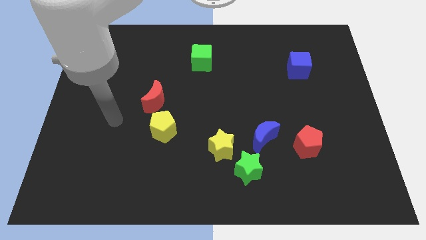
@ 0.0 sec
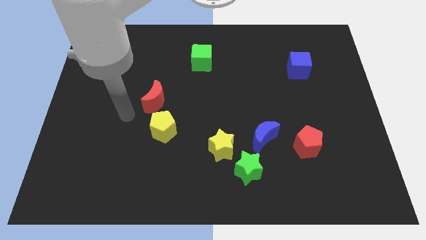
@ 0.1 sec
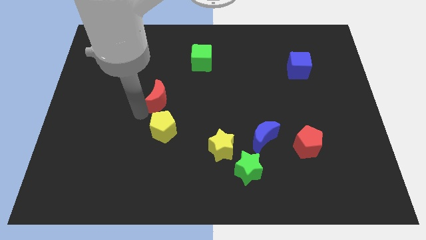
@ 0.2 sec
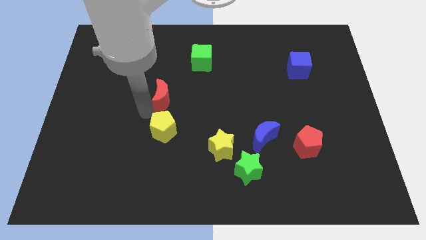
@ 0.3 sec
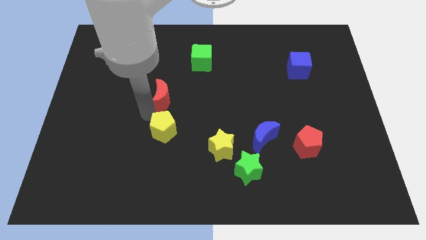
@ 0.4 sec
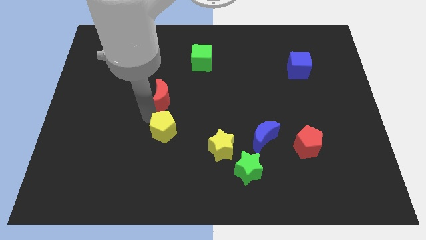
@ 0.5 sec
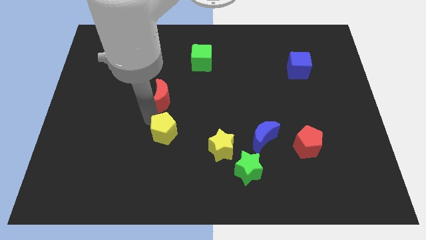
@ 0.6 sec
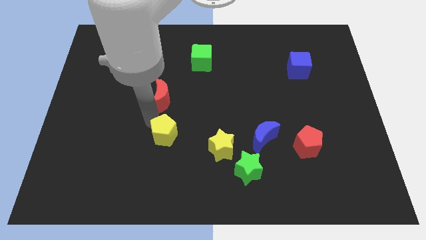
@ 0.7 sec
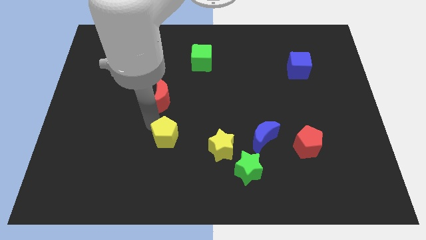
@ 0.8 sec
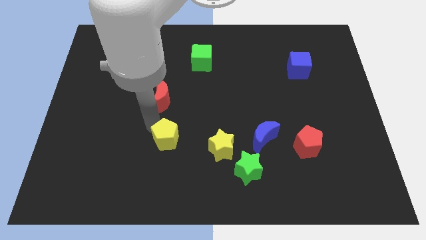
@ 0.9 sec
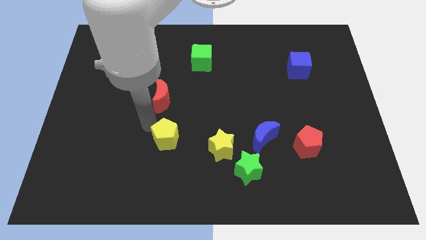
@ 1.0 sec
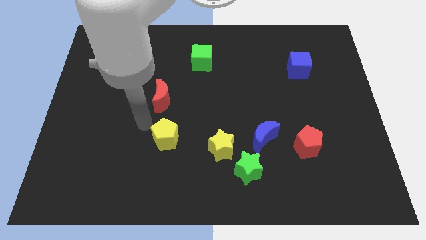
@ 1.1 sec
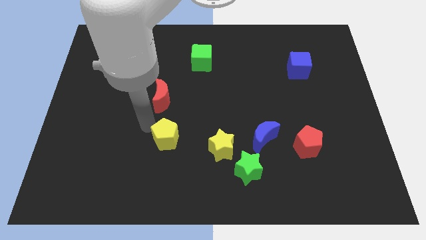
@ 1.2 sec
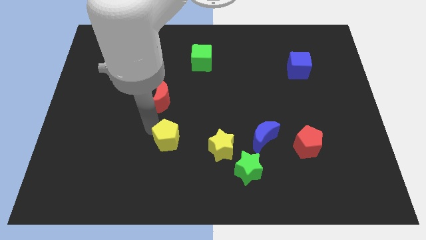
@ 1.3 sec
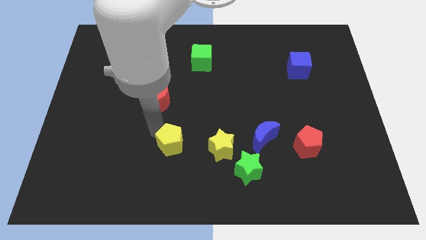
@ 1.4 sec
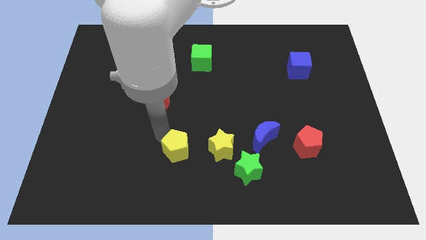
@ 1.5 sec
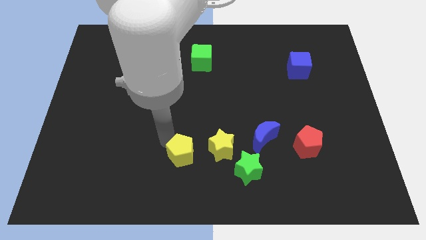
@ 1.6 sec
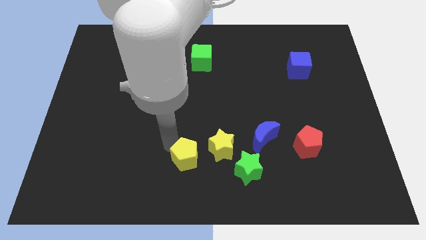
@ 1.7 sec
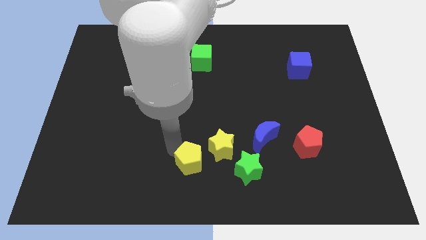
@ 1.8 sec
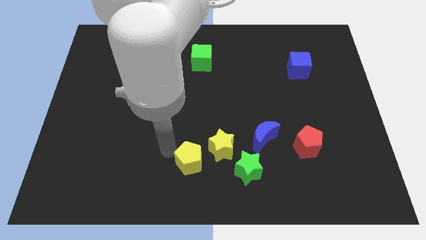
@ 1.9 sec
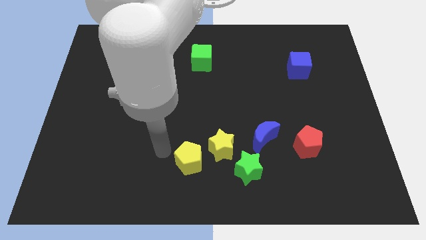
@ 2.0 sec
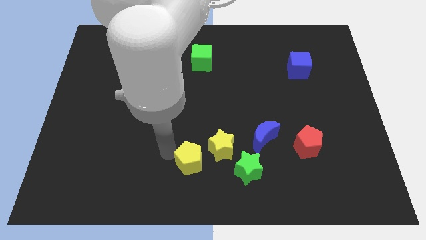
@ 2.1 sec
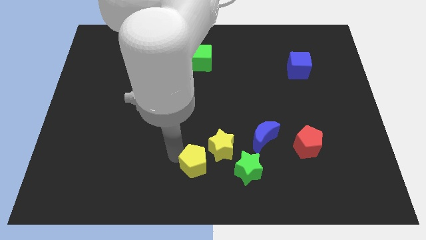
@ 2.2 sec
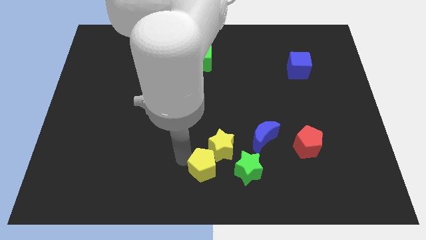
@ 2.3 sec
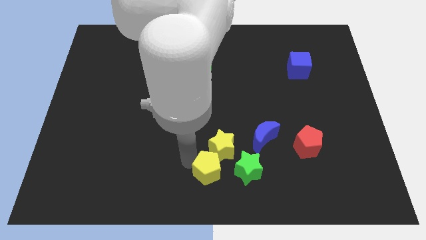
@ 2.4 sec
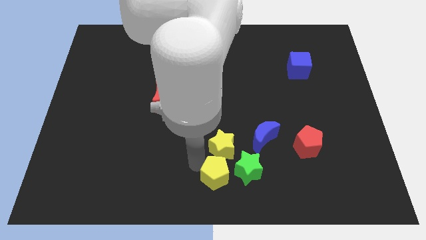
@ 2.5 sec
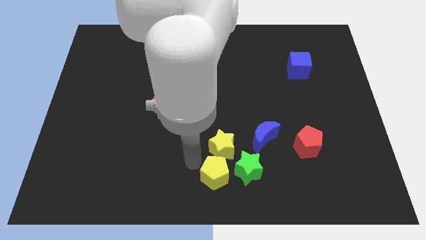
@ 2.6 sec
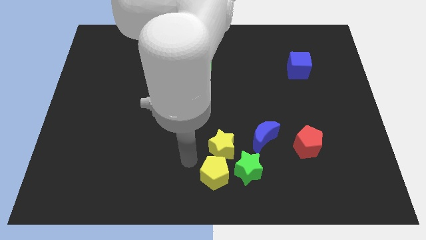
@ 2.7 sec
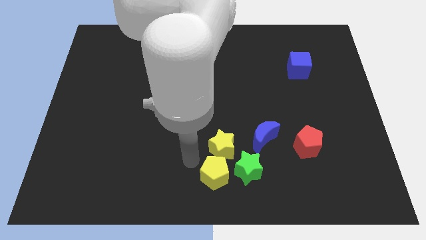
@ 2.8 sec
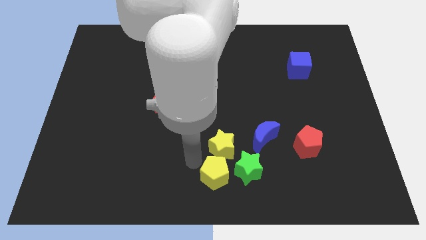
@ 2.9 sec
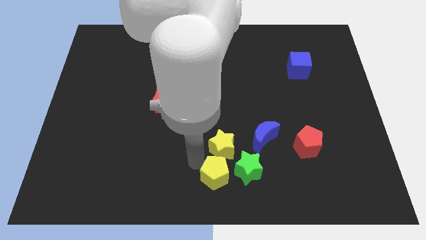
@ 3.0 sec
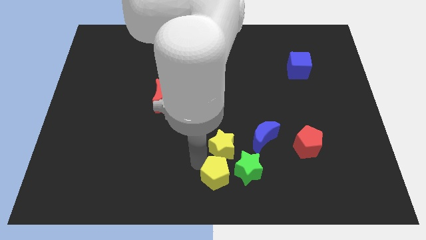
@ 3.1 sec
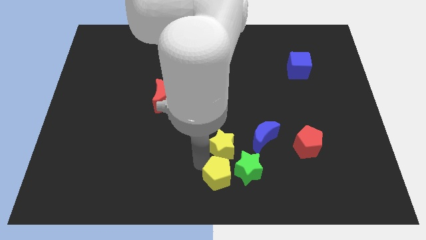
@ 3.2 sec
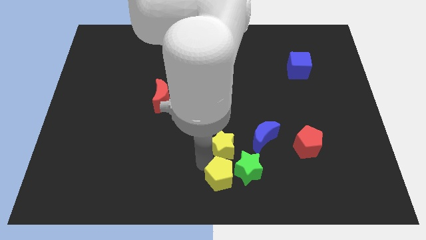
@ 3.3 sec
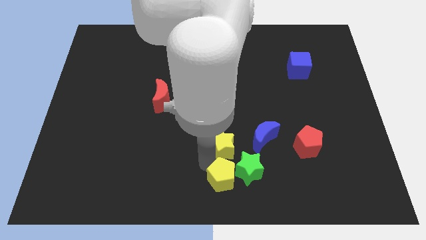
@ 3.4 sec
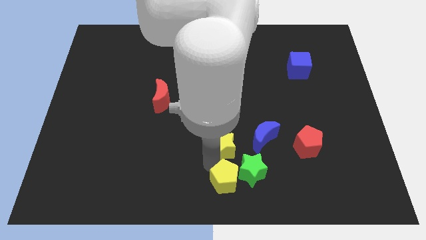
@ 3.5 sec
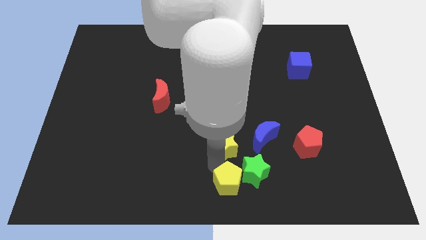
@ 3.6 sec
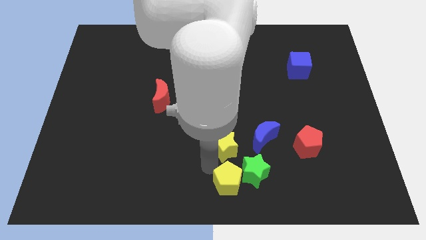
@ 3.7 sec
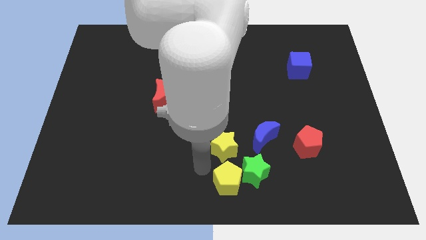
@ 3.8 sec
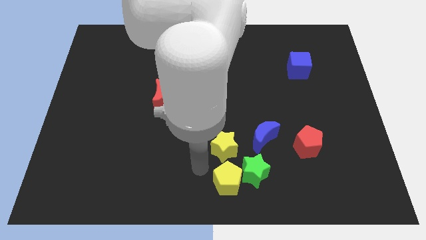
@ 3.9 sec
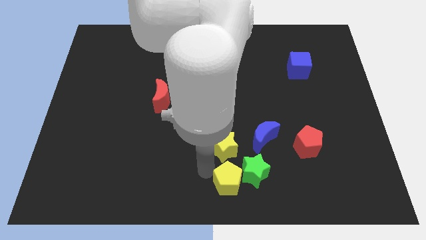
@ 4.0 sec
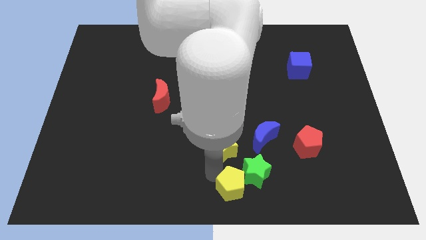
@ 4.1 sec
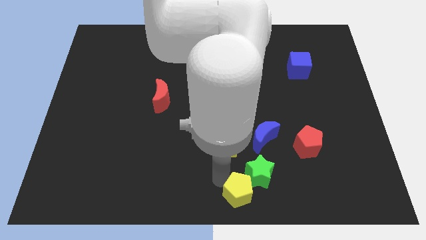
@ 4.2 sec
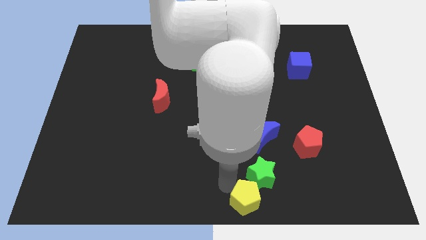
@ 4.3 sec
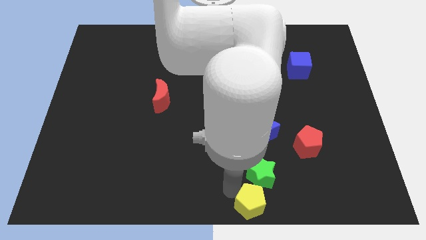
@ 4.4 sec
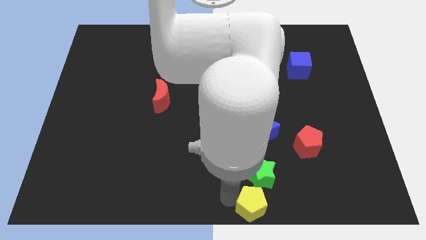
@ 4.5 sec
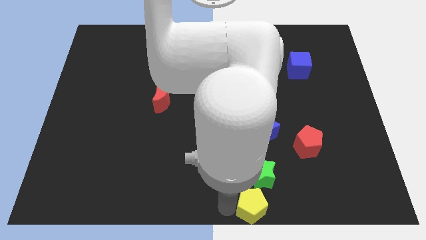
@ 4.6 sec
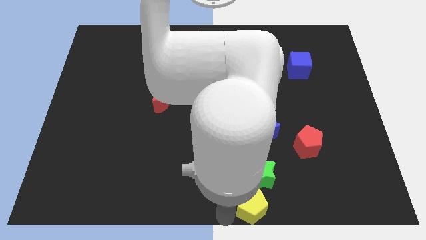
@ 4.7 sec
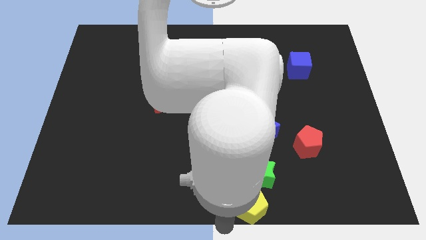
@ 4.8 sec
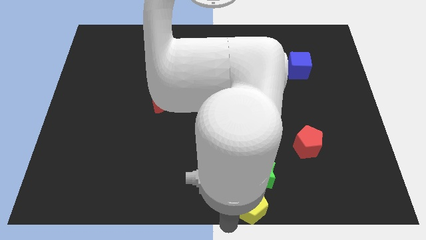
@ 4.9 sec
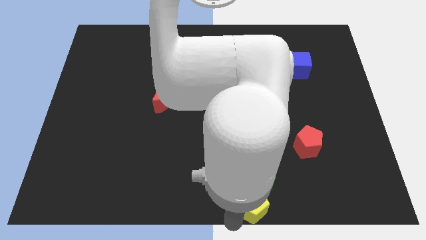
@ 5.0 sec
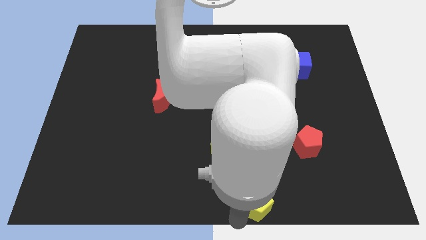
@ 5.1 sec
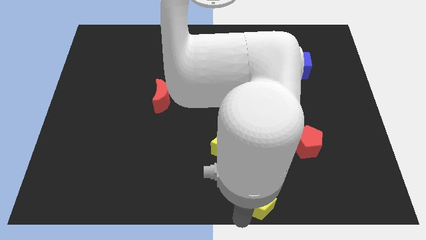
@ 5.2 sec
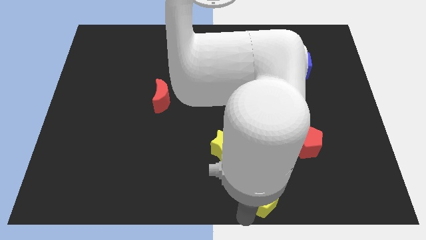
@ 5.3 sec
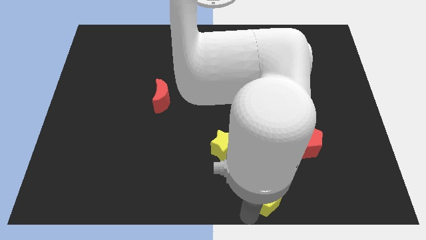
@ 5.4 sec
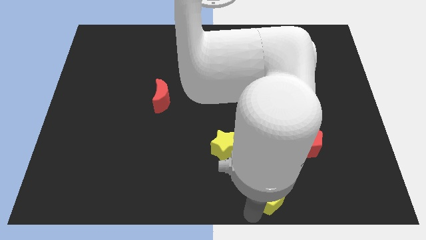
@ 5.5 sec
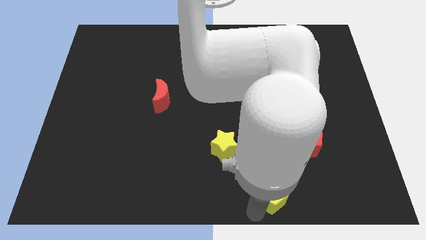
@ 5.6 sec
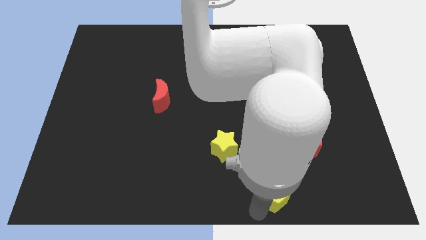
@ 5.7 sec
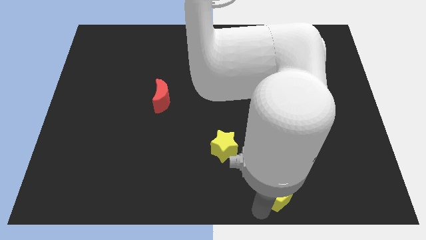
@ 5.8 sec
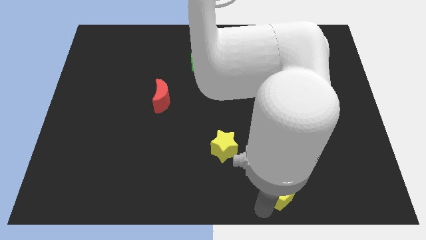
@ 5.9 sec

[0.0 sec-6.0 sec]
move the yellow pentagon to the right of the green star

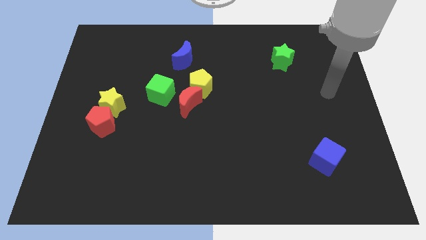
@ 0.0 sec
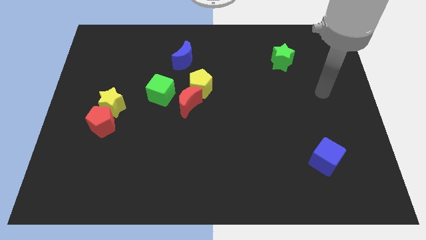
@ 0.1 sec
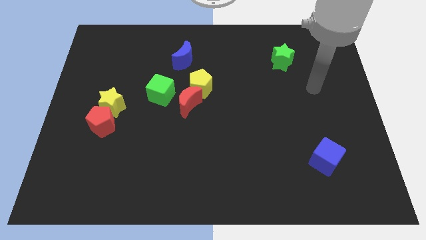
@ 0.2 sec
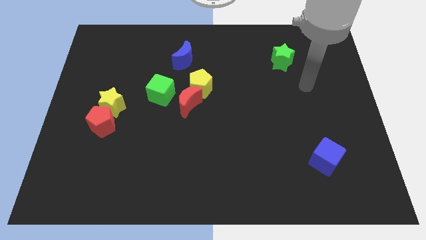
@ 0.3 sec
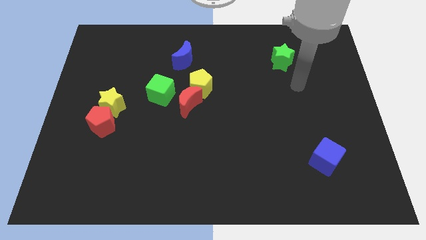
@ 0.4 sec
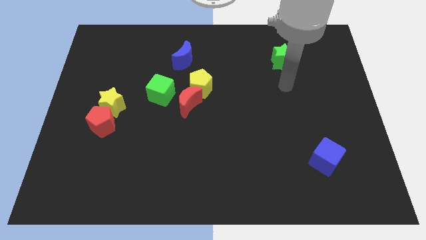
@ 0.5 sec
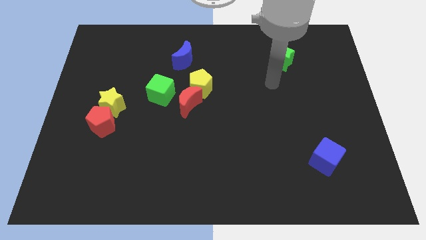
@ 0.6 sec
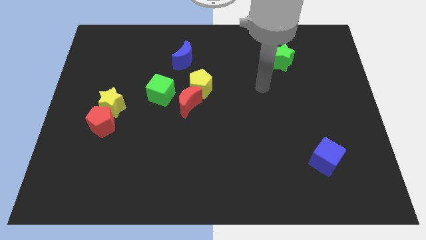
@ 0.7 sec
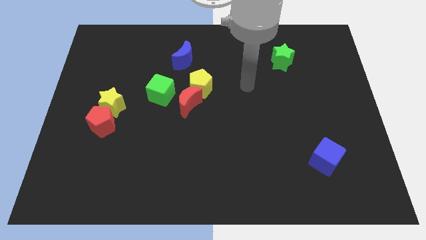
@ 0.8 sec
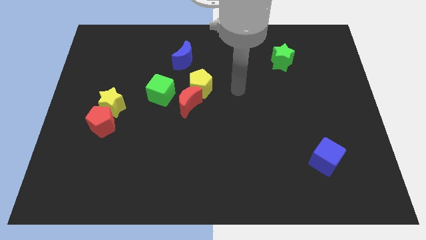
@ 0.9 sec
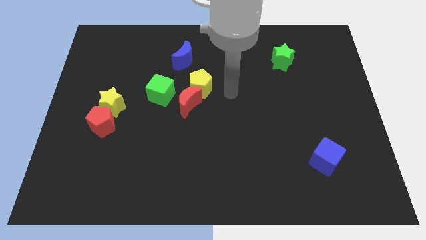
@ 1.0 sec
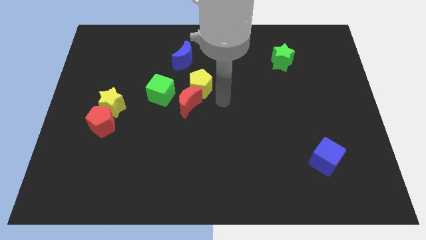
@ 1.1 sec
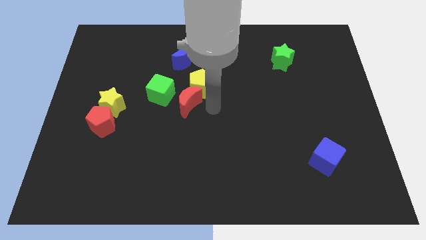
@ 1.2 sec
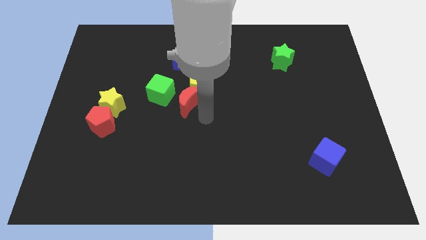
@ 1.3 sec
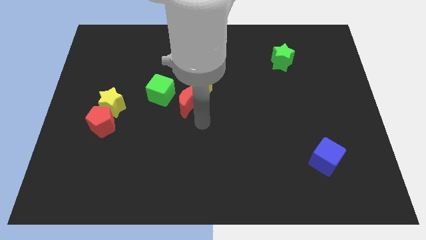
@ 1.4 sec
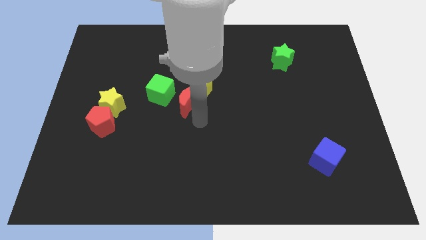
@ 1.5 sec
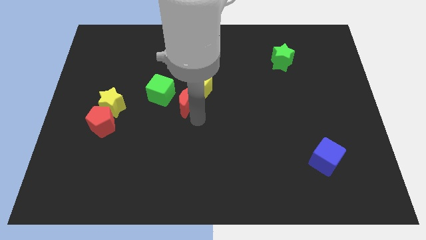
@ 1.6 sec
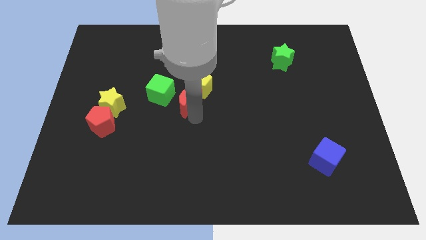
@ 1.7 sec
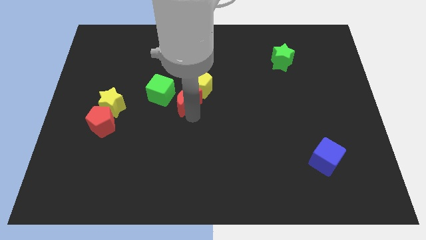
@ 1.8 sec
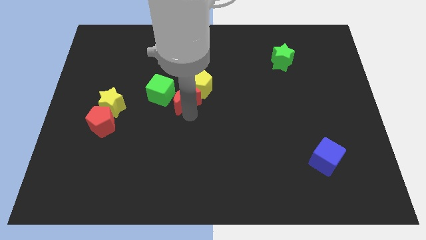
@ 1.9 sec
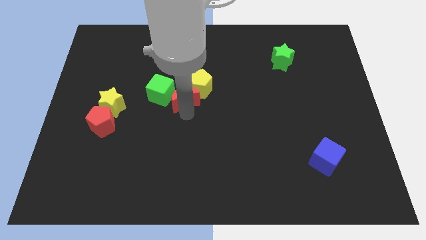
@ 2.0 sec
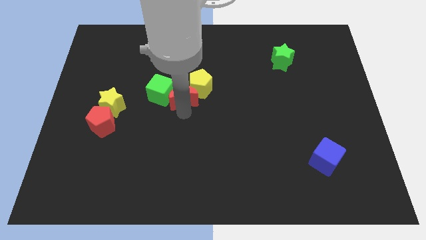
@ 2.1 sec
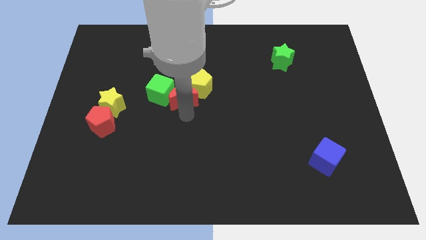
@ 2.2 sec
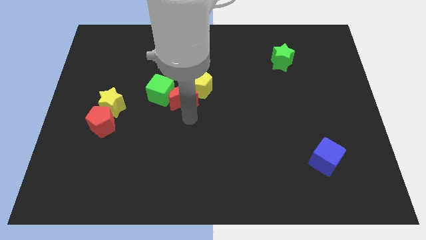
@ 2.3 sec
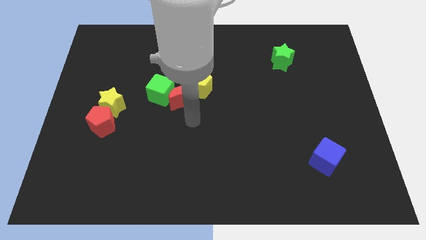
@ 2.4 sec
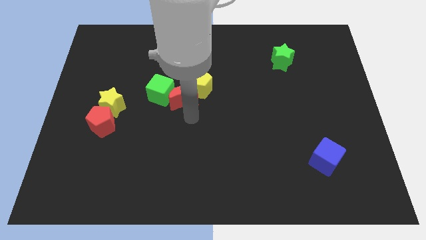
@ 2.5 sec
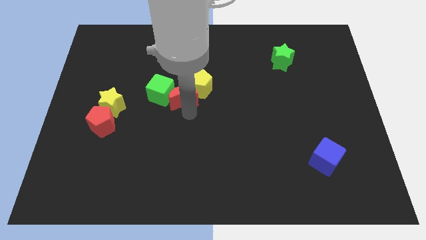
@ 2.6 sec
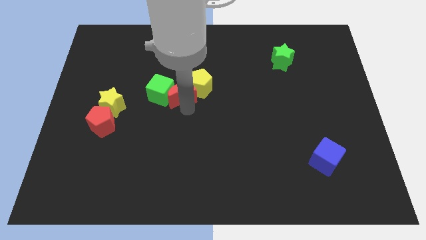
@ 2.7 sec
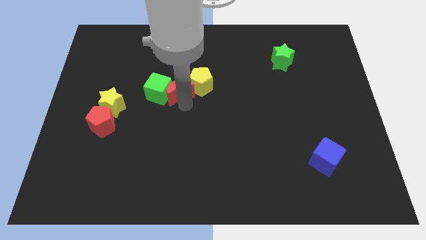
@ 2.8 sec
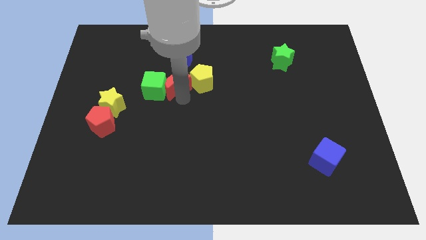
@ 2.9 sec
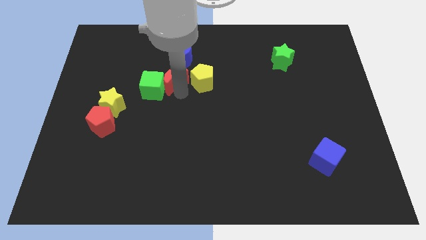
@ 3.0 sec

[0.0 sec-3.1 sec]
put the red moon to the bottom left of the blue moon
